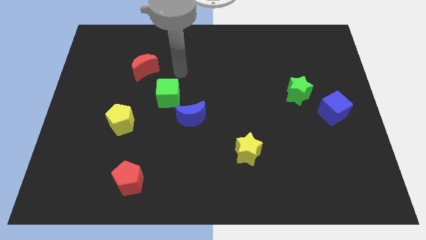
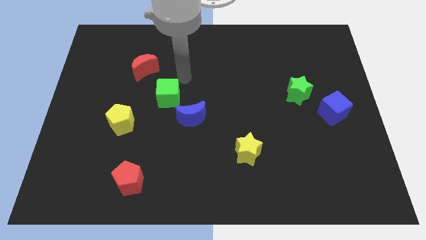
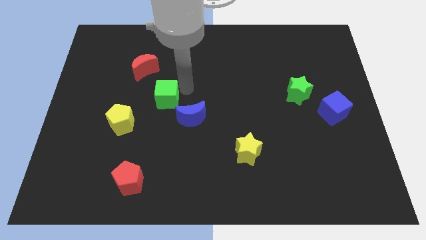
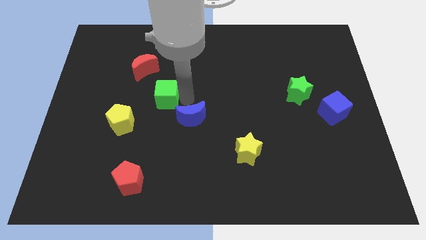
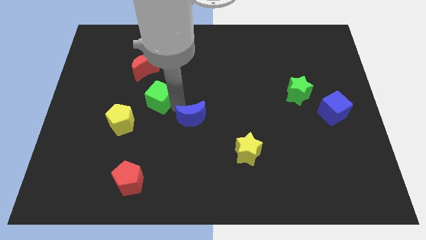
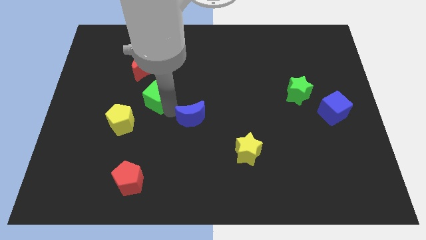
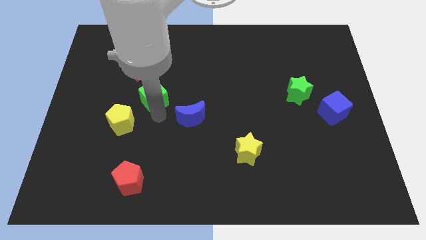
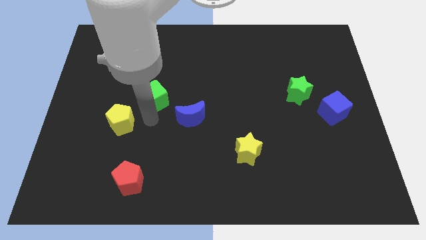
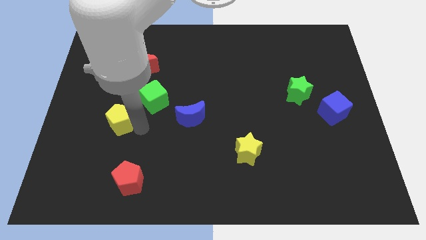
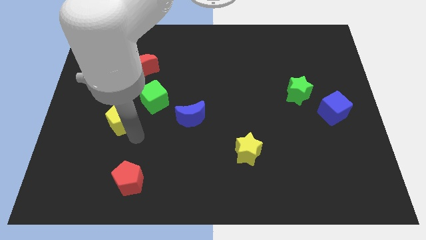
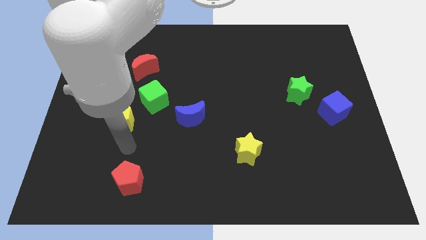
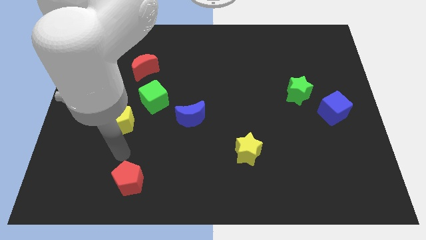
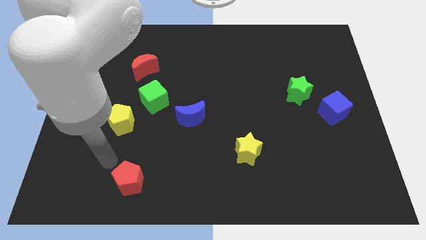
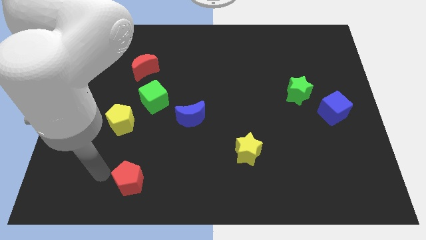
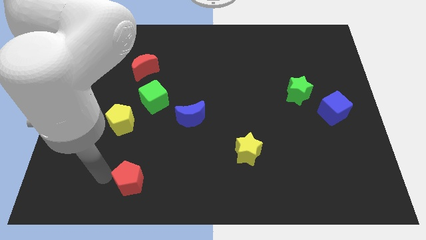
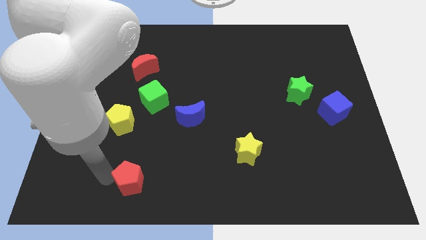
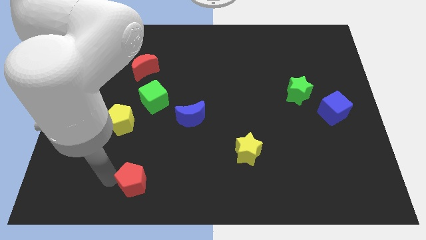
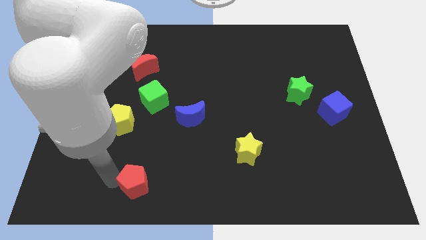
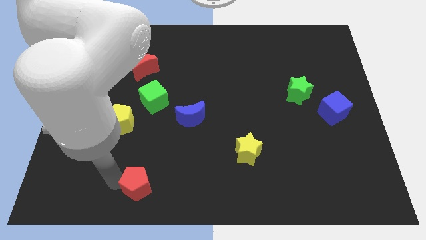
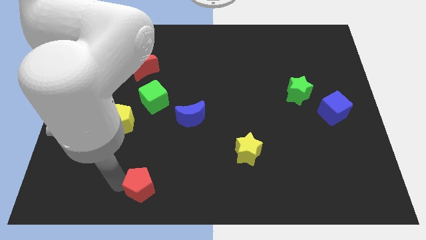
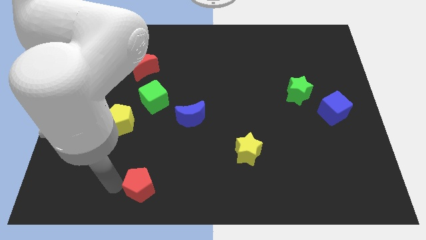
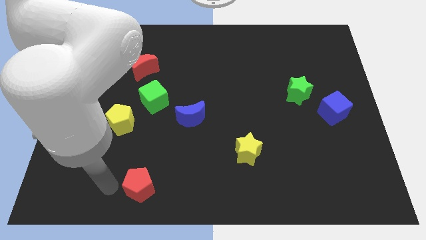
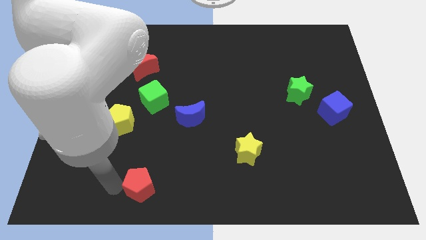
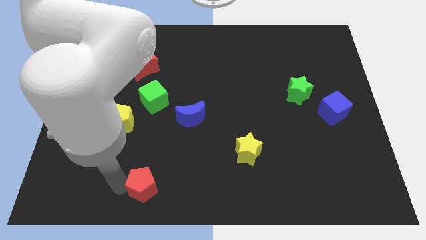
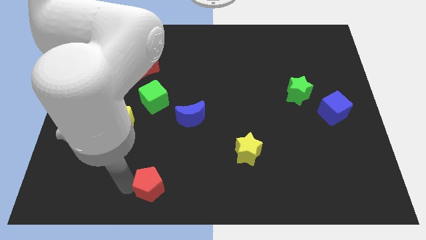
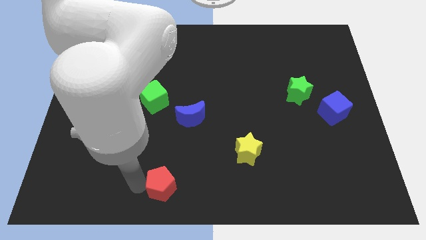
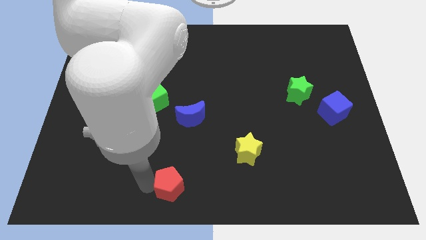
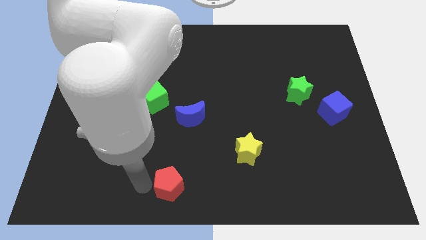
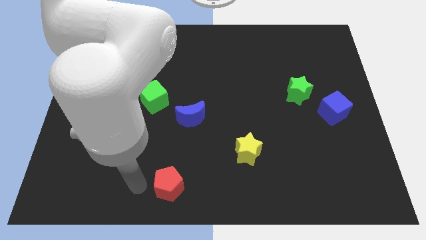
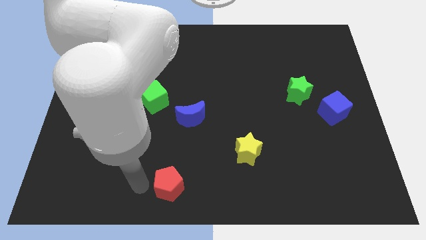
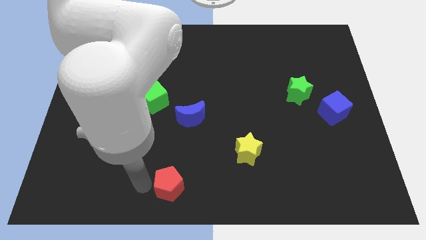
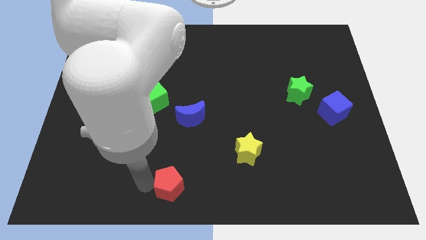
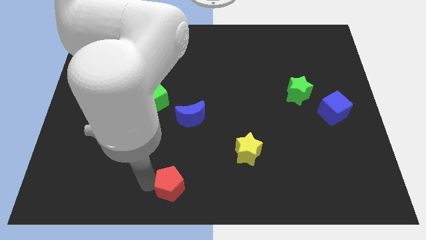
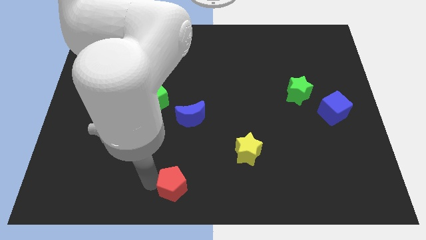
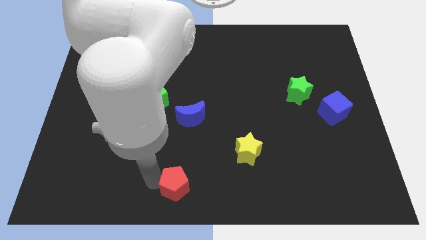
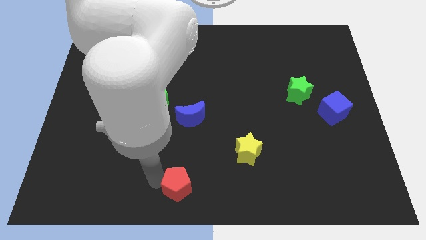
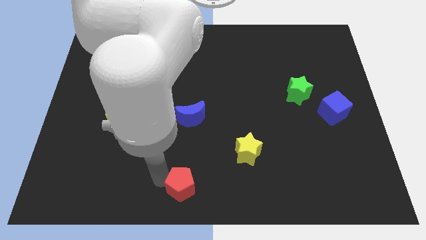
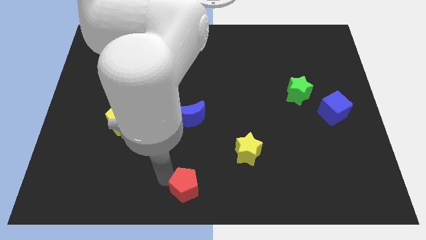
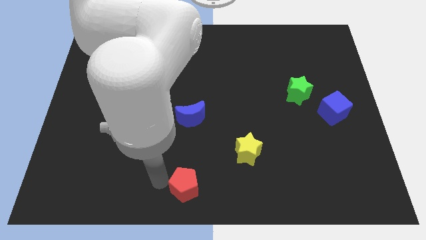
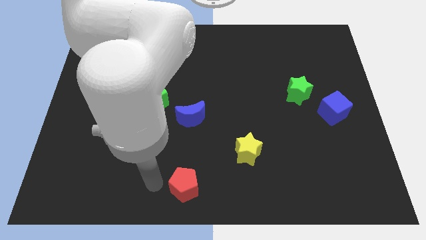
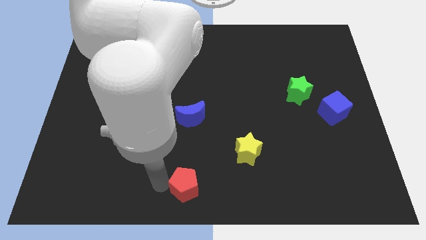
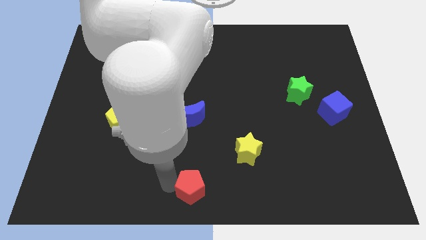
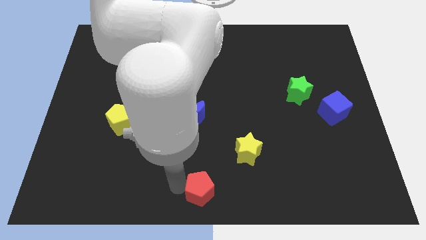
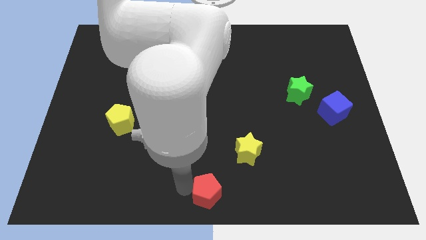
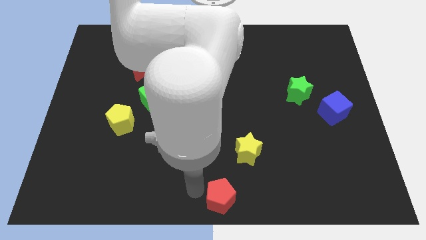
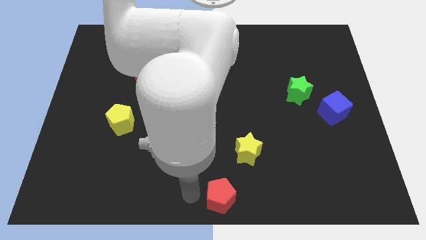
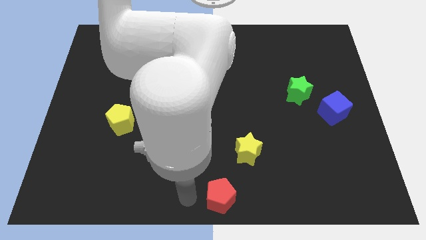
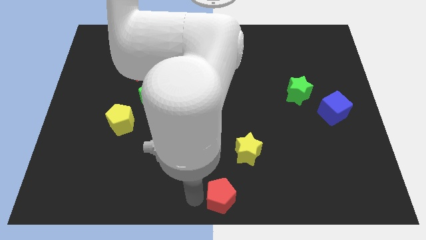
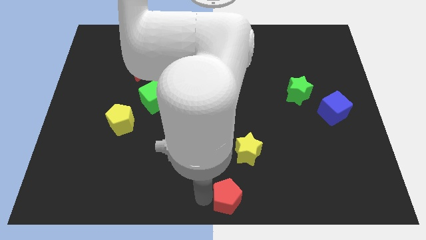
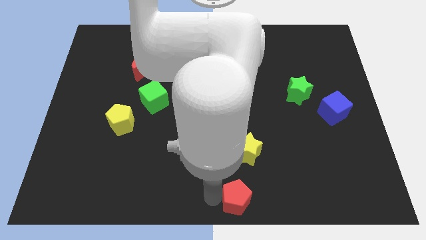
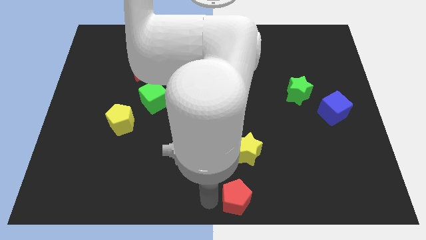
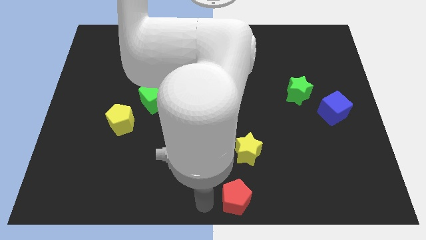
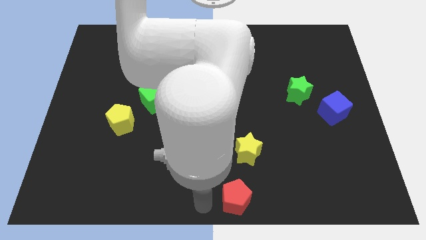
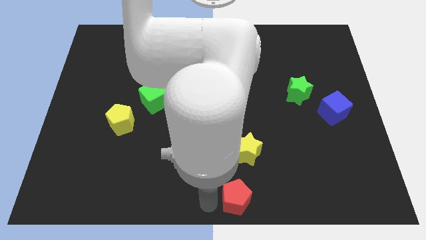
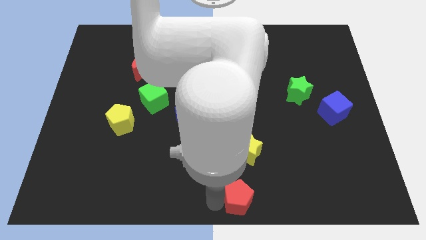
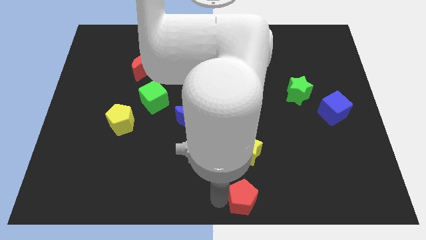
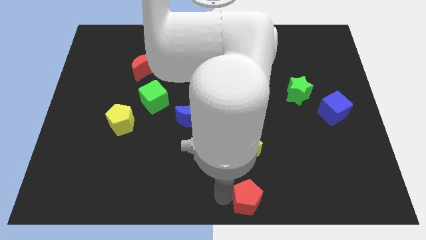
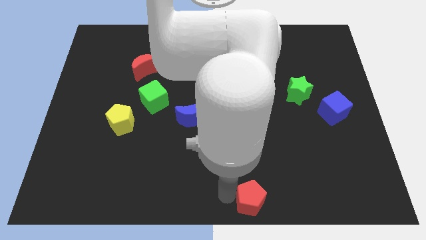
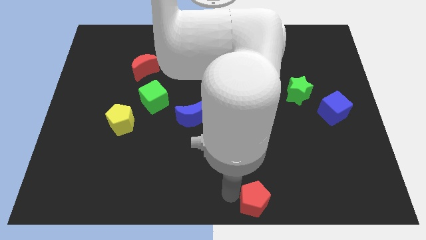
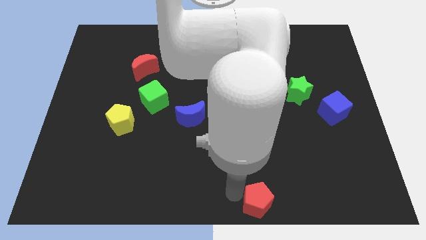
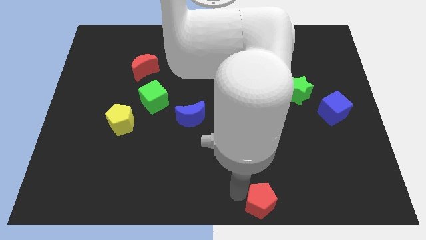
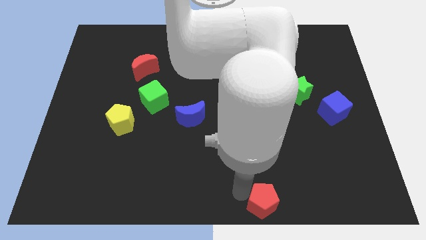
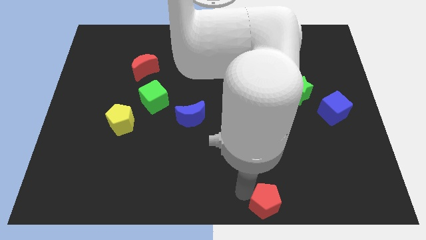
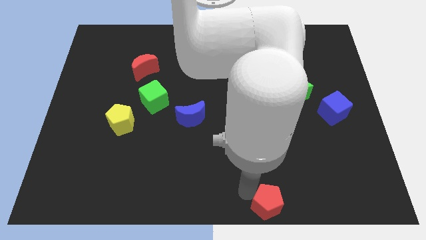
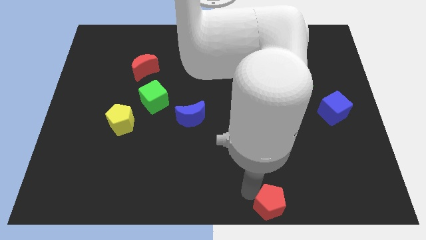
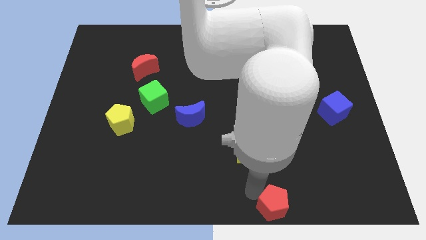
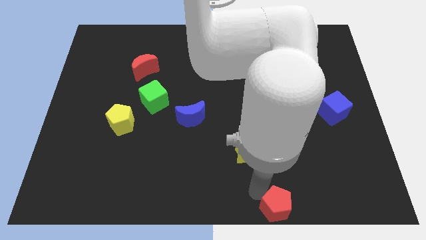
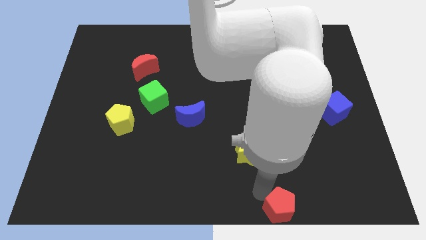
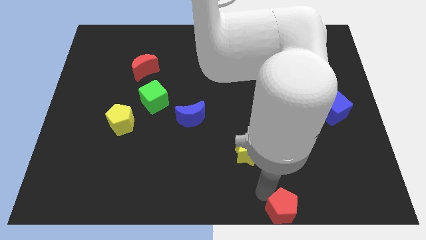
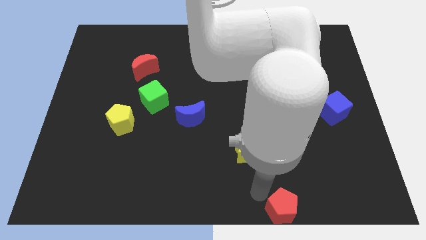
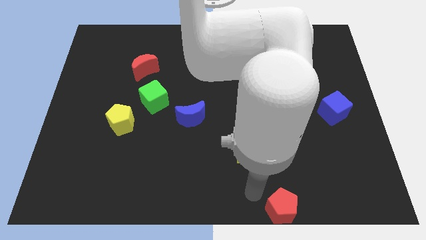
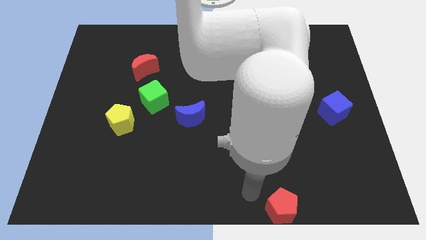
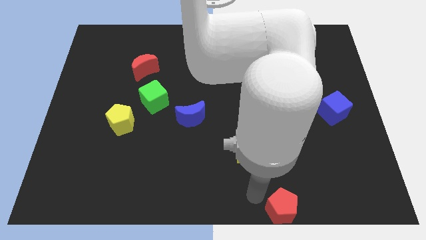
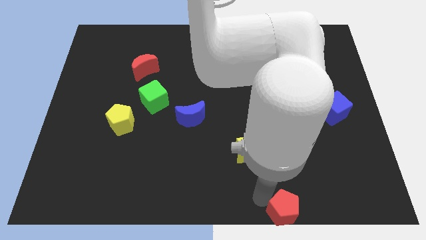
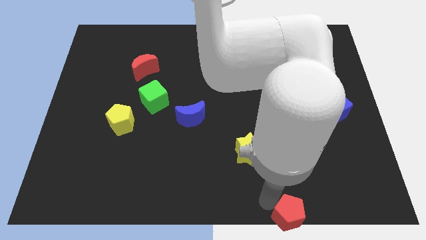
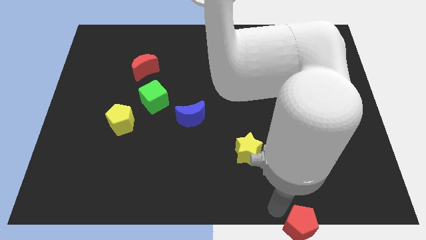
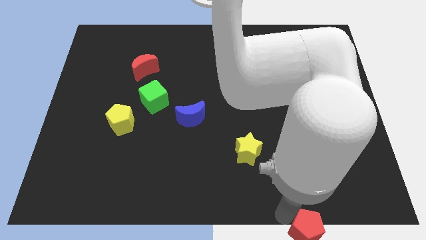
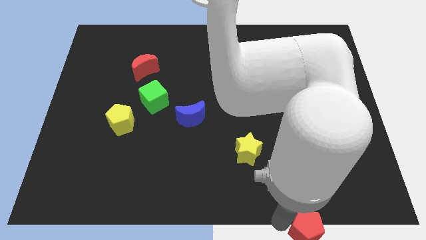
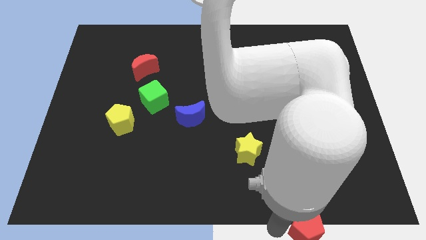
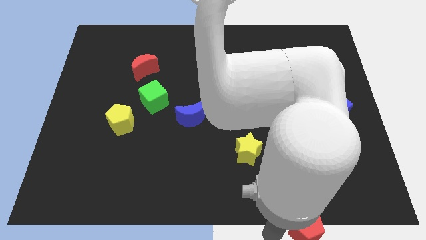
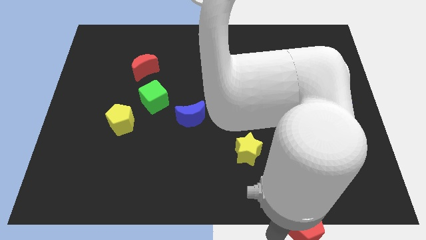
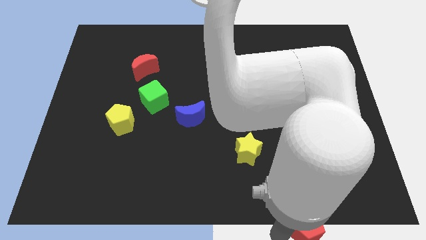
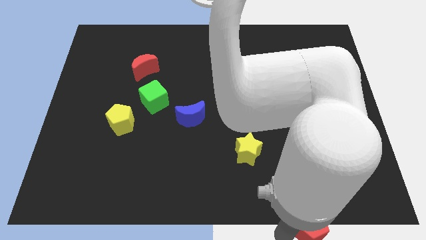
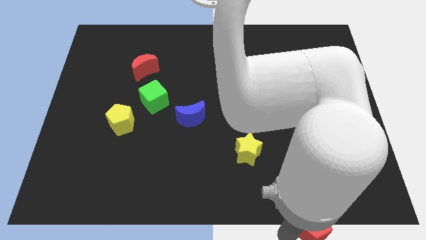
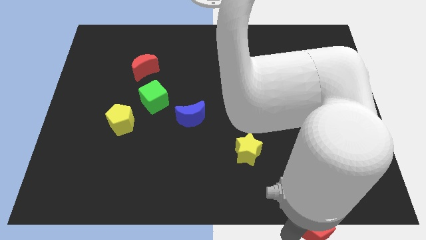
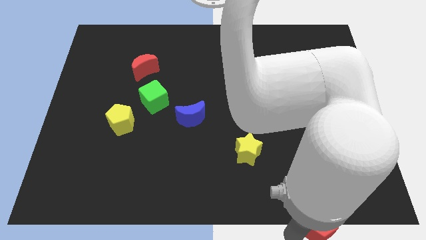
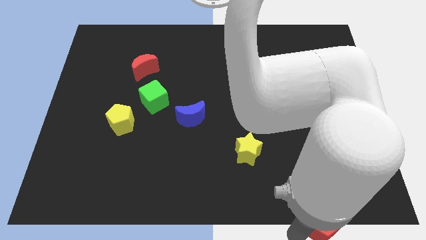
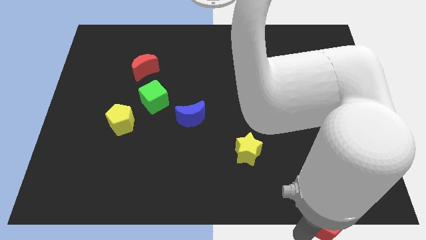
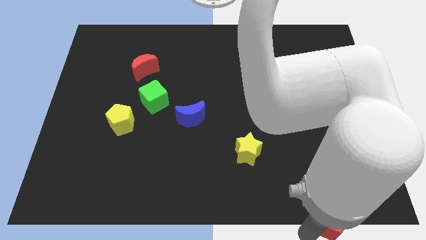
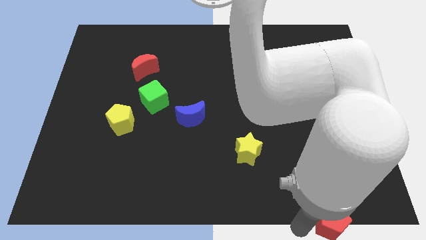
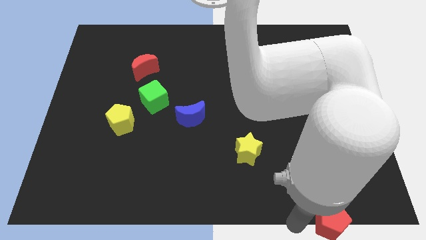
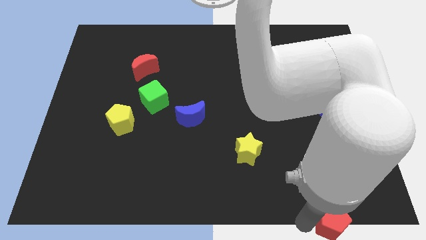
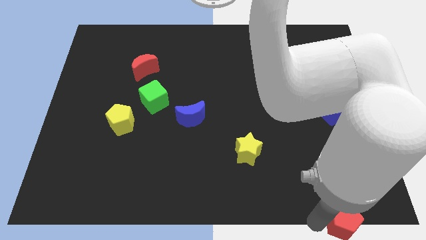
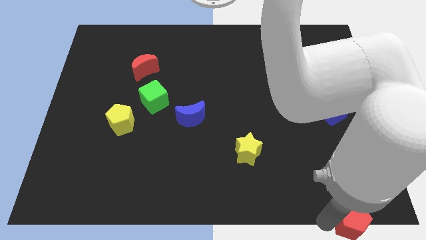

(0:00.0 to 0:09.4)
push the red pentagon to the bottom right corner
